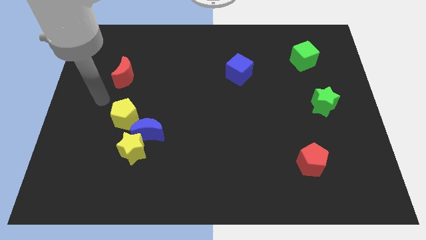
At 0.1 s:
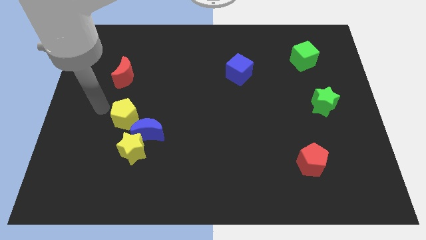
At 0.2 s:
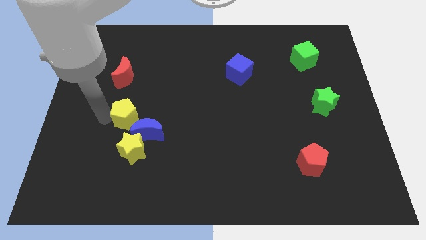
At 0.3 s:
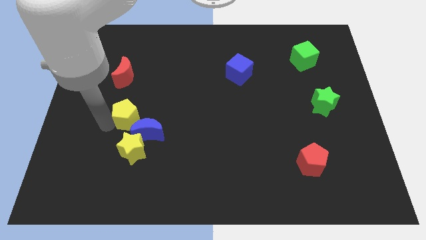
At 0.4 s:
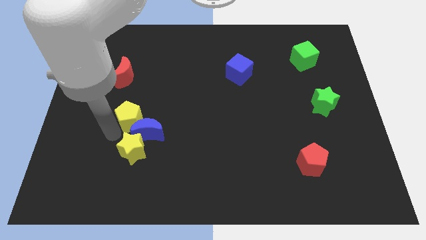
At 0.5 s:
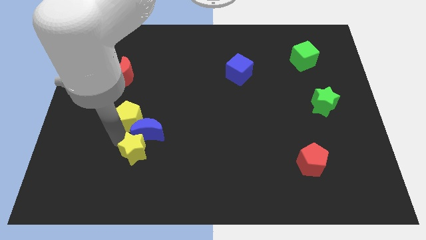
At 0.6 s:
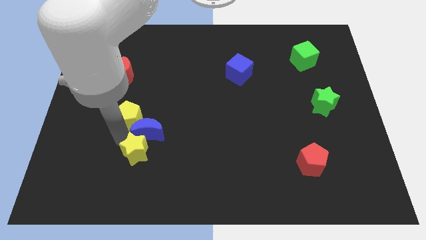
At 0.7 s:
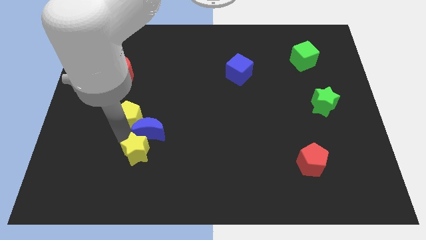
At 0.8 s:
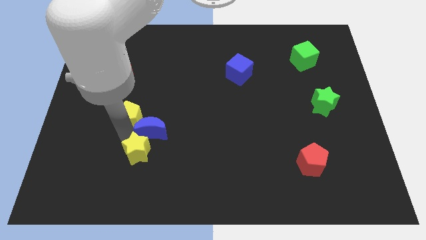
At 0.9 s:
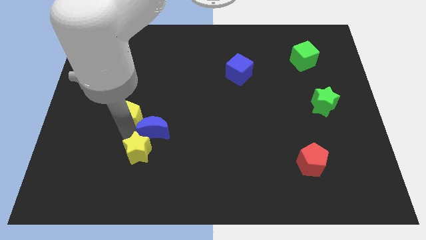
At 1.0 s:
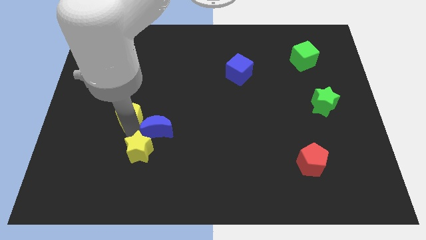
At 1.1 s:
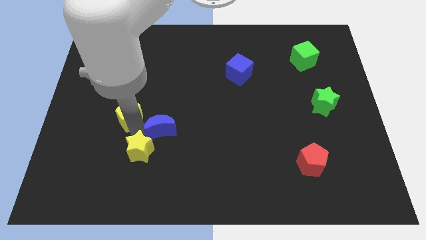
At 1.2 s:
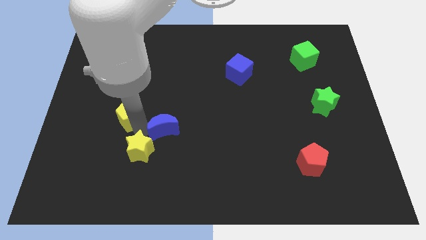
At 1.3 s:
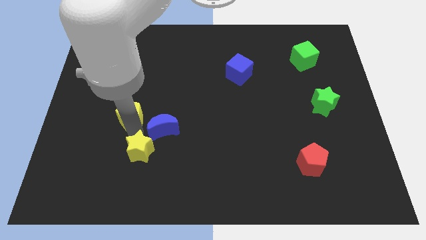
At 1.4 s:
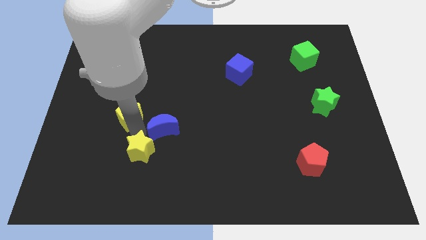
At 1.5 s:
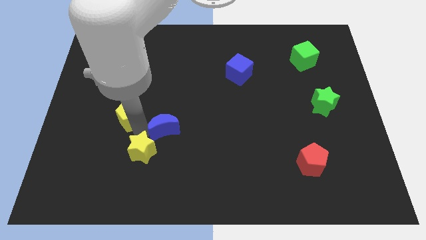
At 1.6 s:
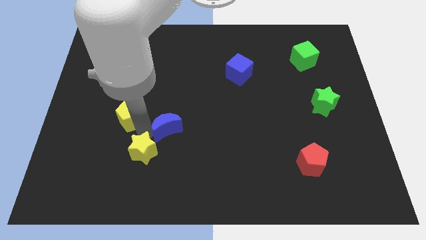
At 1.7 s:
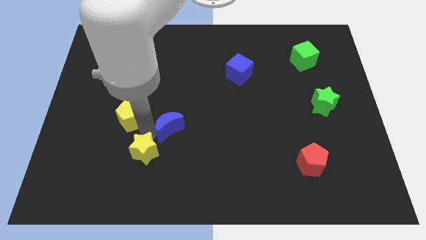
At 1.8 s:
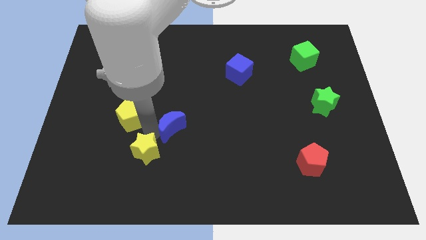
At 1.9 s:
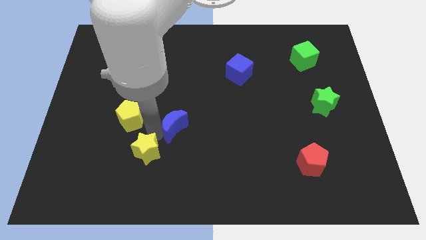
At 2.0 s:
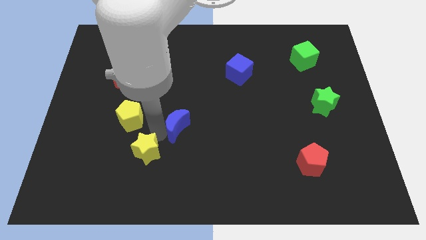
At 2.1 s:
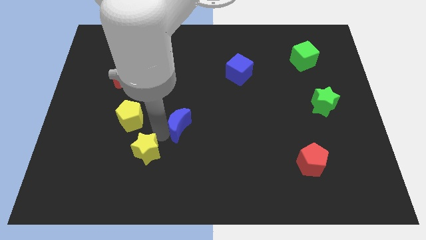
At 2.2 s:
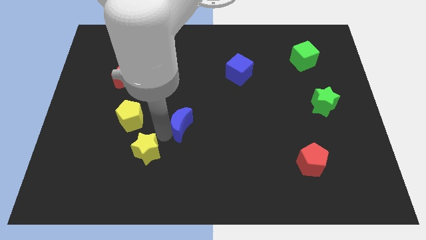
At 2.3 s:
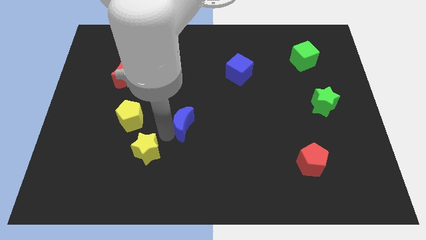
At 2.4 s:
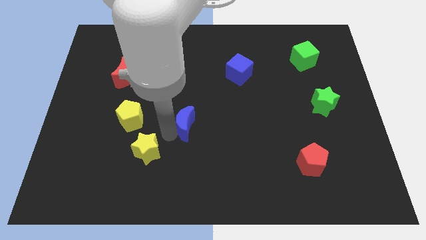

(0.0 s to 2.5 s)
separate the blue moon from the yellow star and yellow pentagon

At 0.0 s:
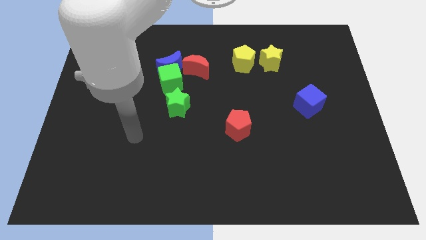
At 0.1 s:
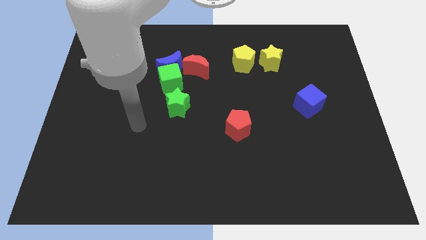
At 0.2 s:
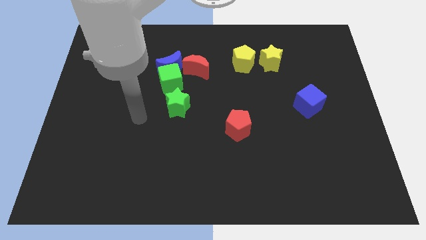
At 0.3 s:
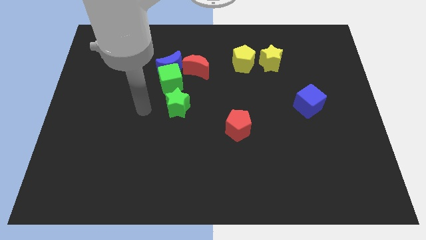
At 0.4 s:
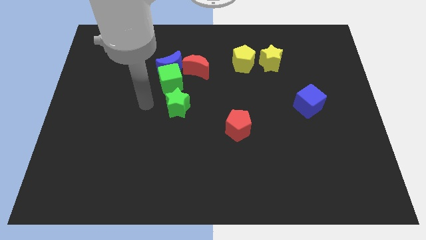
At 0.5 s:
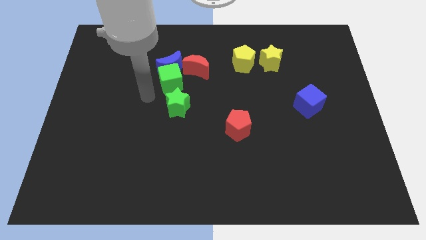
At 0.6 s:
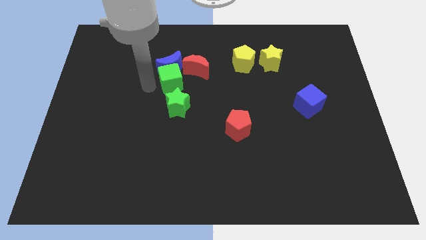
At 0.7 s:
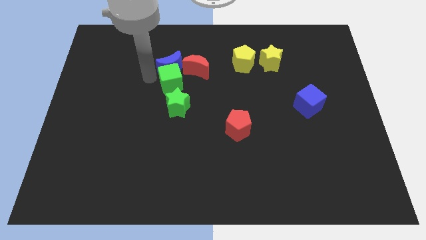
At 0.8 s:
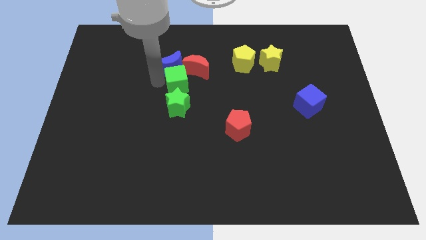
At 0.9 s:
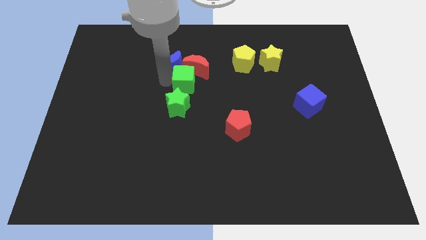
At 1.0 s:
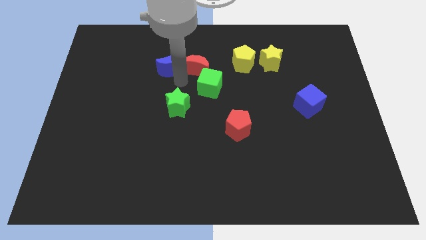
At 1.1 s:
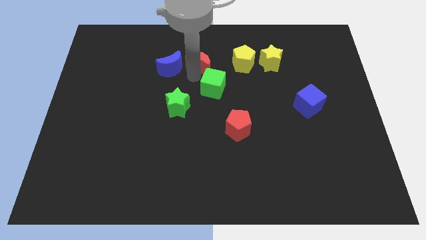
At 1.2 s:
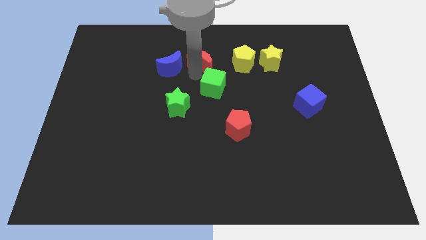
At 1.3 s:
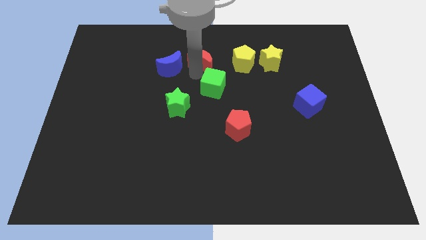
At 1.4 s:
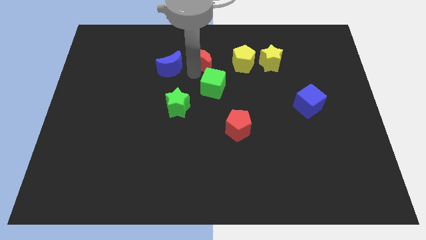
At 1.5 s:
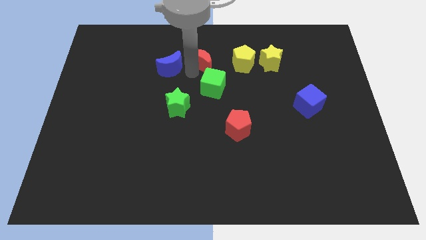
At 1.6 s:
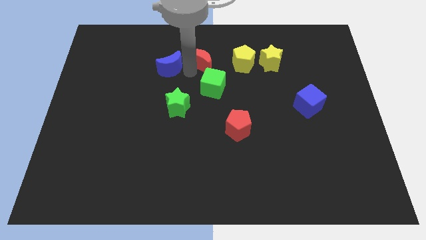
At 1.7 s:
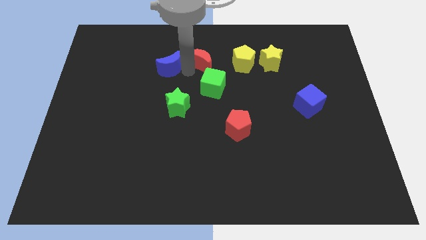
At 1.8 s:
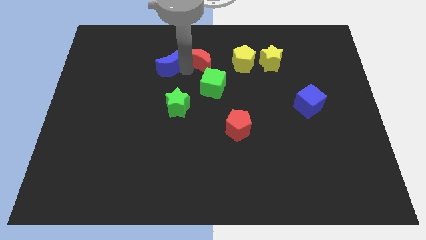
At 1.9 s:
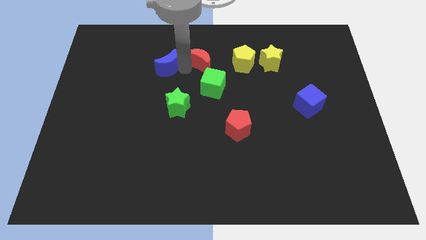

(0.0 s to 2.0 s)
separate the blue moon from the green cube and red moon

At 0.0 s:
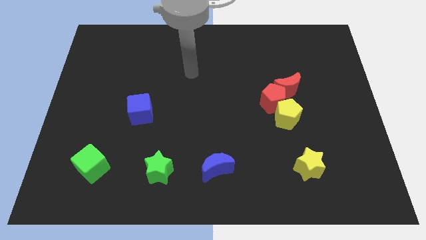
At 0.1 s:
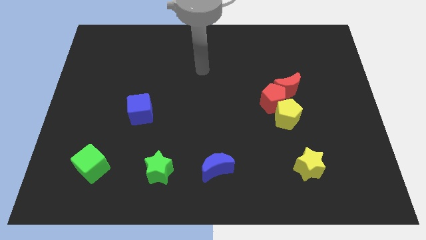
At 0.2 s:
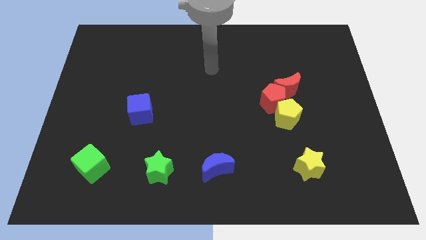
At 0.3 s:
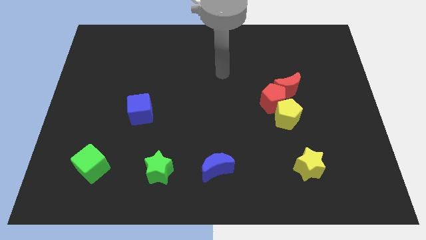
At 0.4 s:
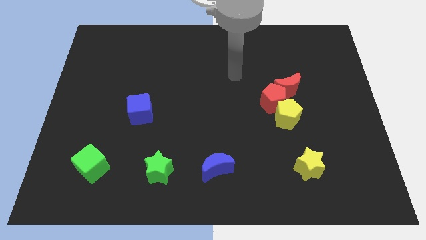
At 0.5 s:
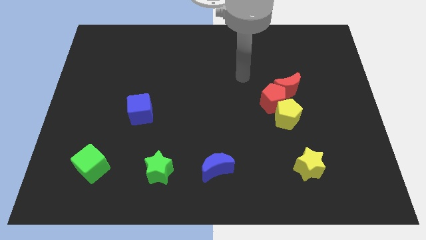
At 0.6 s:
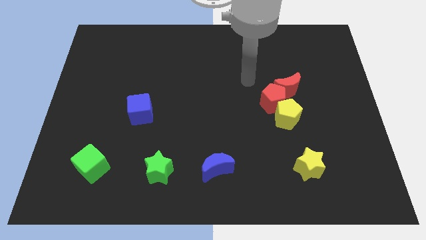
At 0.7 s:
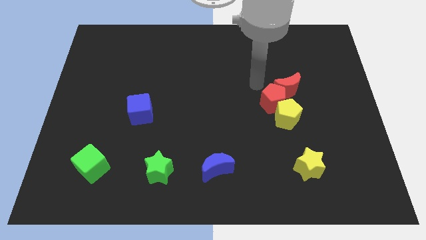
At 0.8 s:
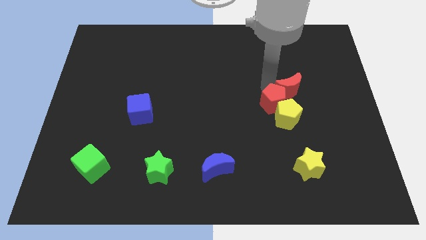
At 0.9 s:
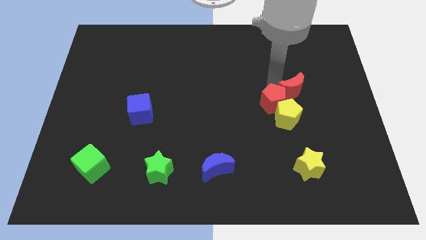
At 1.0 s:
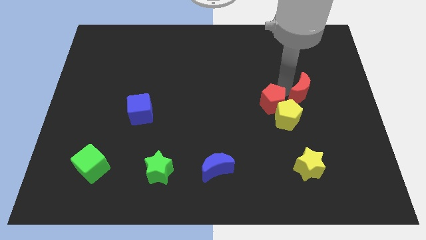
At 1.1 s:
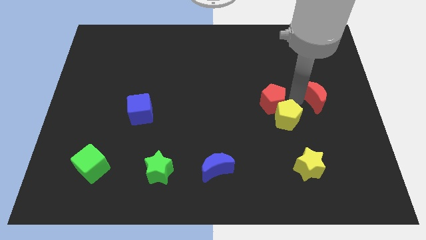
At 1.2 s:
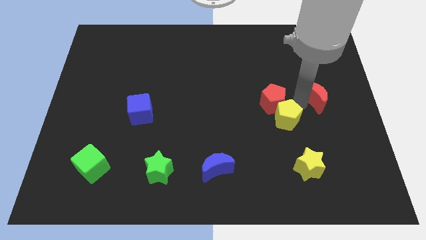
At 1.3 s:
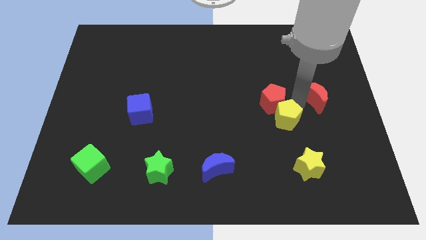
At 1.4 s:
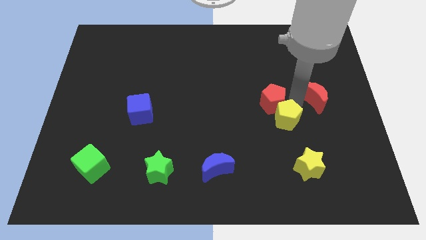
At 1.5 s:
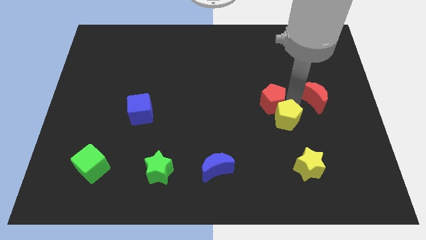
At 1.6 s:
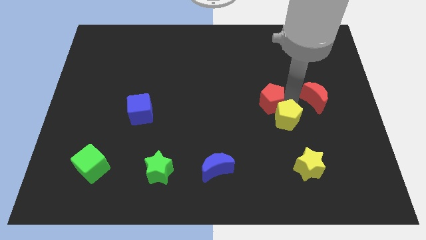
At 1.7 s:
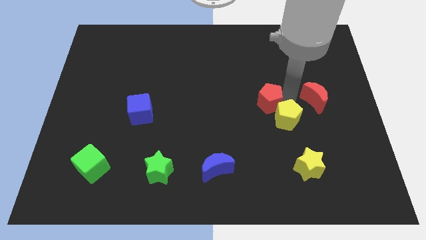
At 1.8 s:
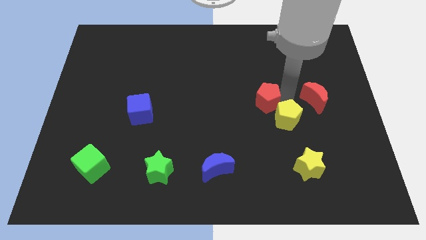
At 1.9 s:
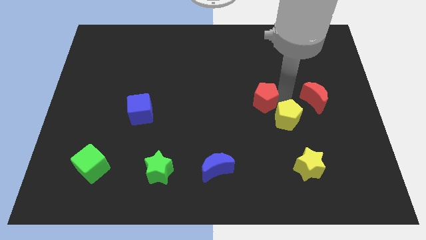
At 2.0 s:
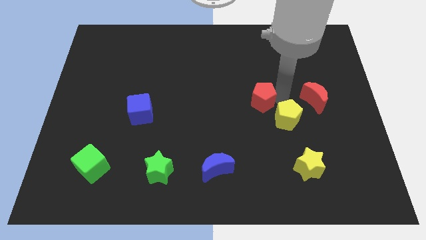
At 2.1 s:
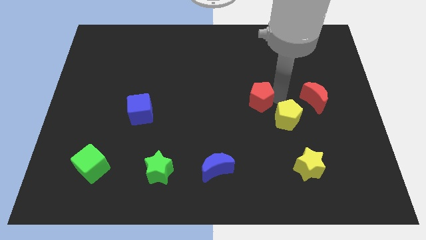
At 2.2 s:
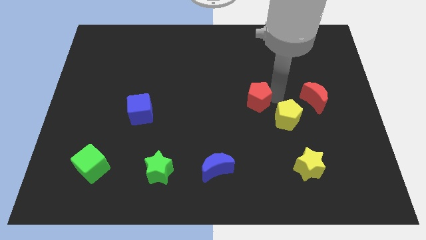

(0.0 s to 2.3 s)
separate the red pentagon from the yellow pentagon and red moon

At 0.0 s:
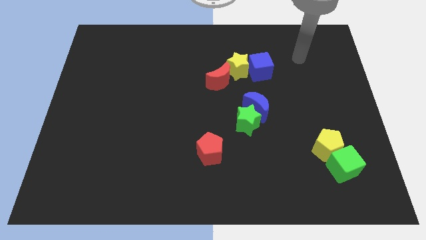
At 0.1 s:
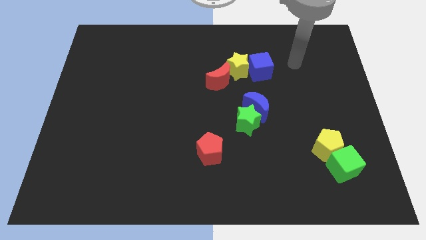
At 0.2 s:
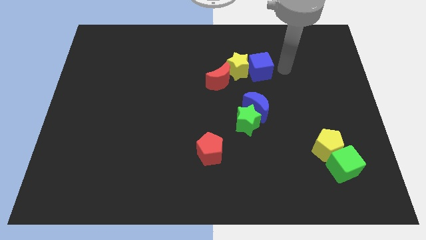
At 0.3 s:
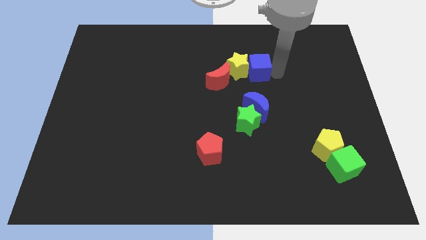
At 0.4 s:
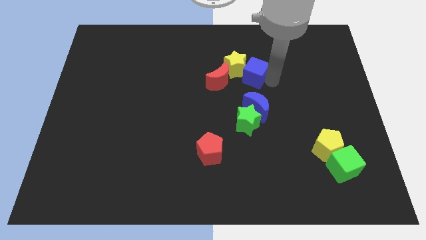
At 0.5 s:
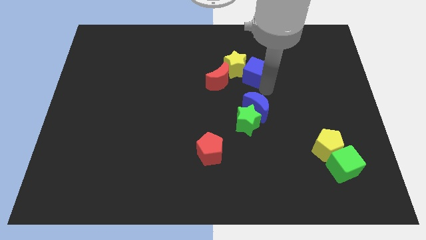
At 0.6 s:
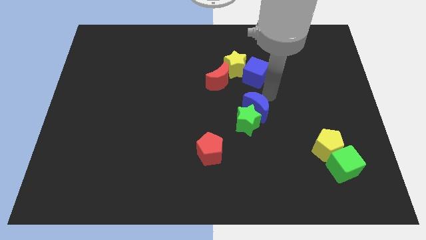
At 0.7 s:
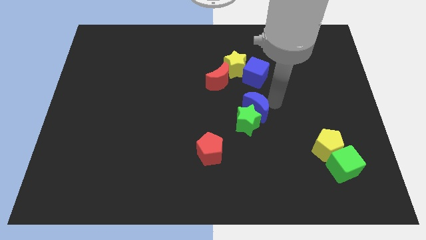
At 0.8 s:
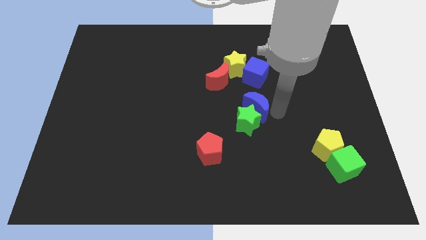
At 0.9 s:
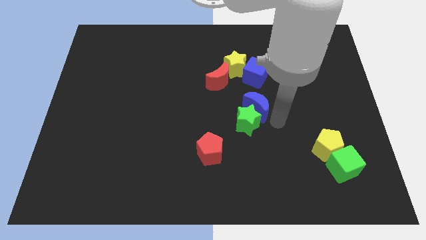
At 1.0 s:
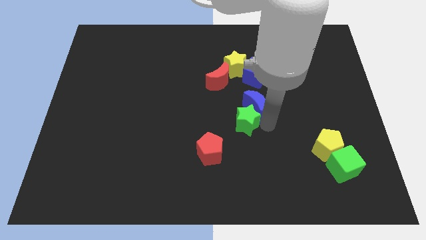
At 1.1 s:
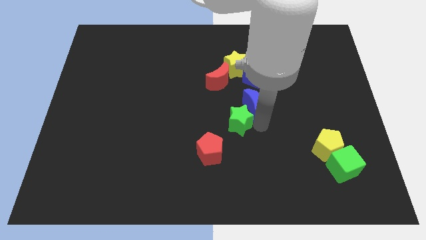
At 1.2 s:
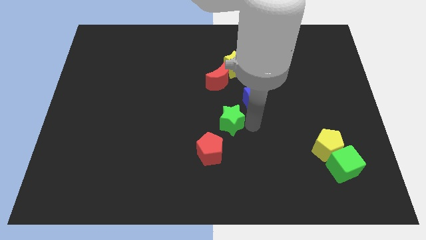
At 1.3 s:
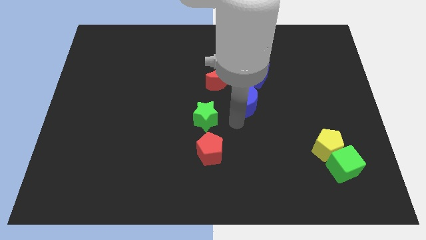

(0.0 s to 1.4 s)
separate the blue moon from the green star

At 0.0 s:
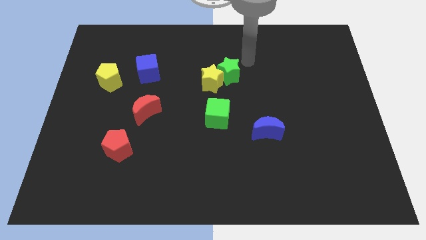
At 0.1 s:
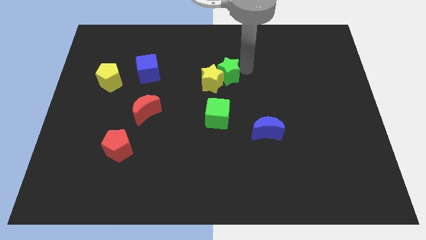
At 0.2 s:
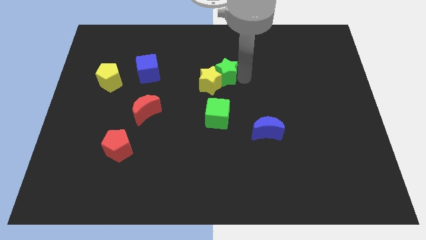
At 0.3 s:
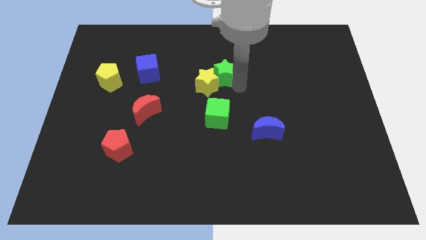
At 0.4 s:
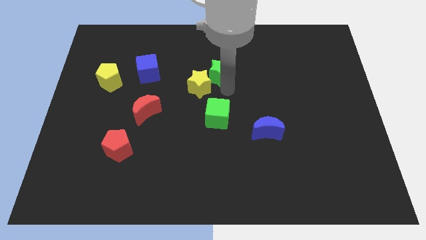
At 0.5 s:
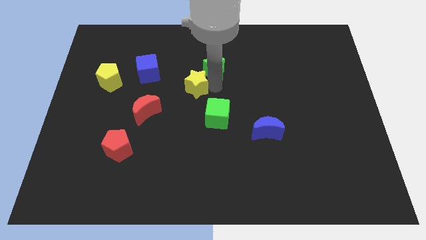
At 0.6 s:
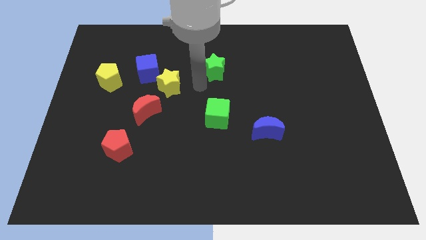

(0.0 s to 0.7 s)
separate the green star from the yellow star

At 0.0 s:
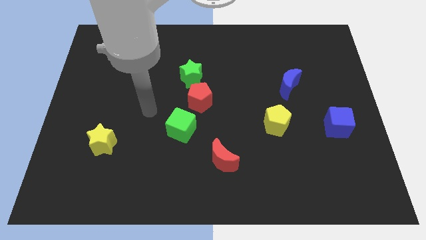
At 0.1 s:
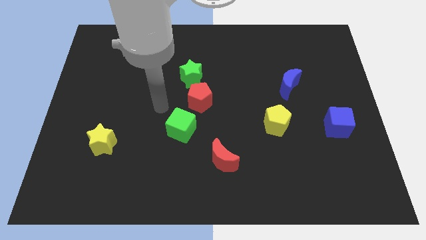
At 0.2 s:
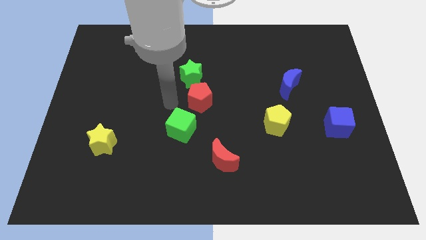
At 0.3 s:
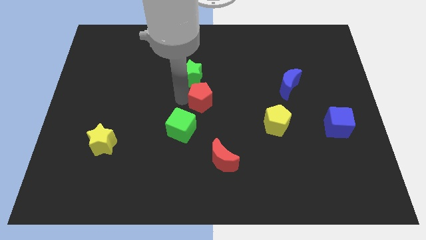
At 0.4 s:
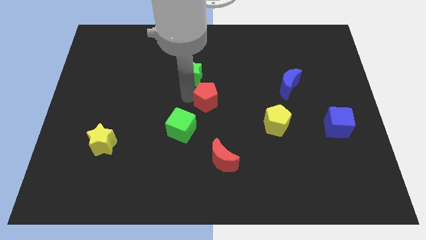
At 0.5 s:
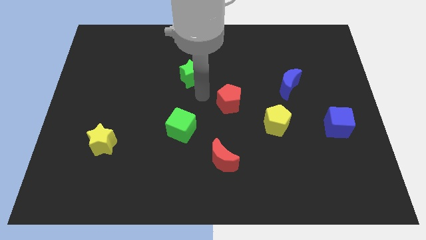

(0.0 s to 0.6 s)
move the green star away from the red pentagon
